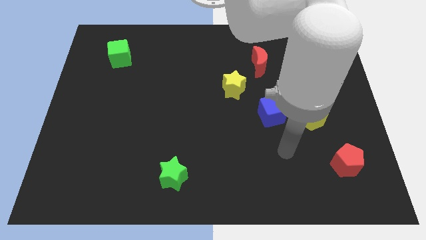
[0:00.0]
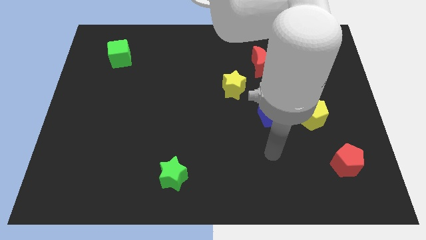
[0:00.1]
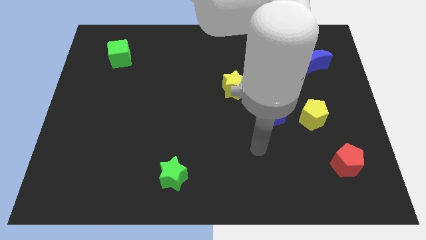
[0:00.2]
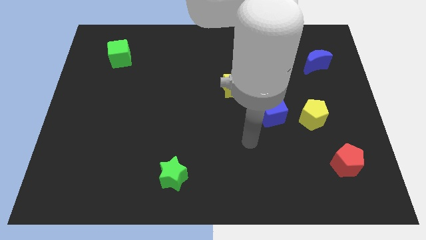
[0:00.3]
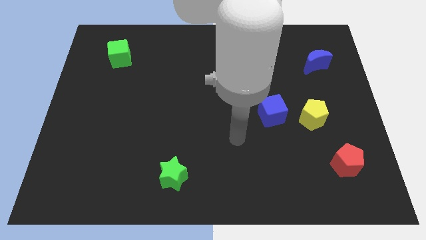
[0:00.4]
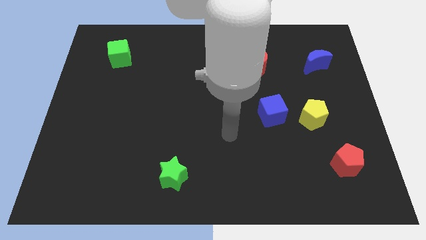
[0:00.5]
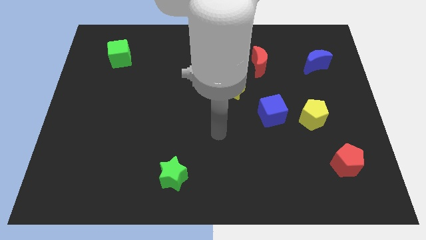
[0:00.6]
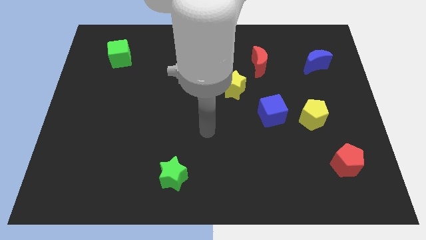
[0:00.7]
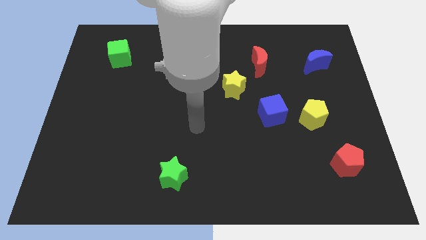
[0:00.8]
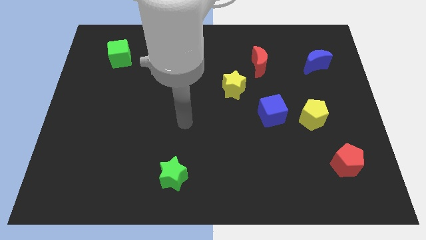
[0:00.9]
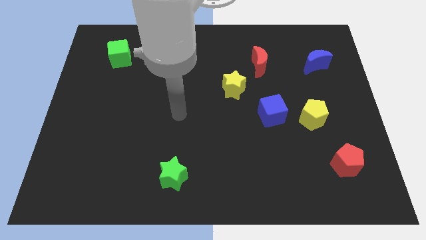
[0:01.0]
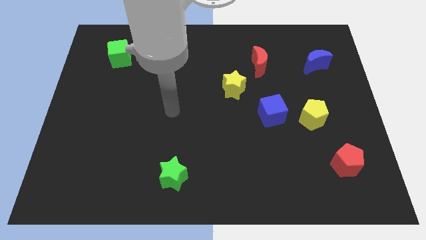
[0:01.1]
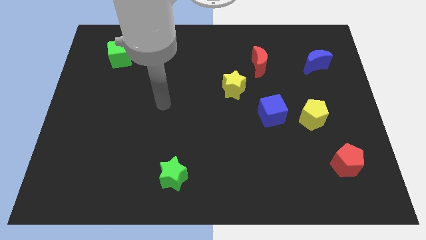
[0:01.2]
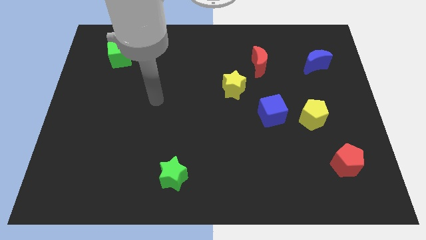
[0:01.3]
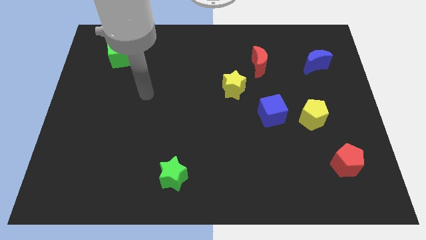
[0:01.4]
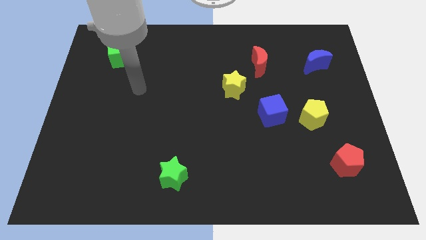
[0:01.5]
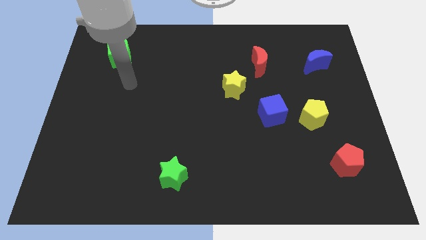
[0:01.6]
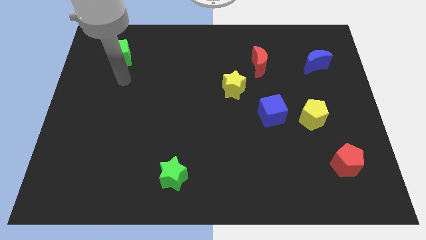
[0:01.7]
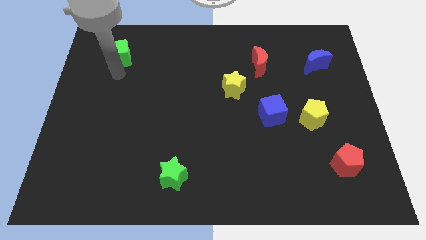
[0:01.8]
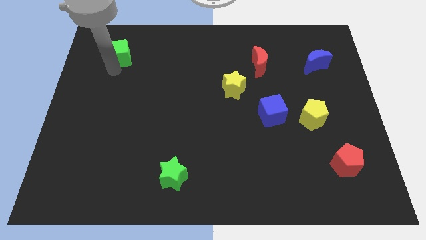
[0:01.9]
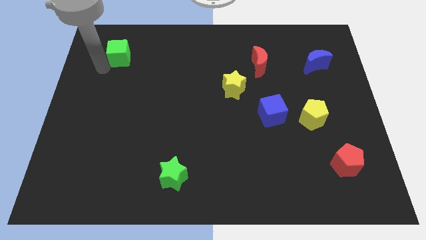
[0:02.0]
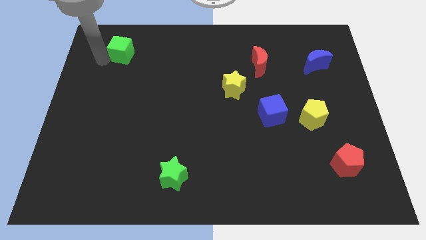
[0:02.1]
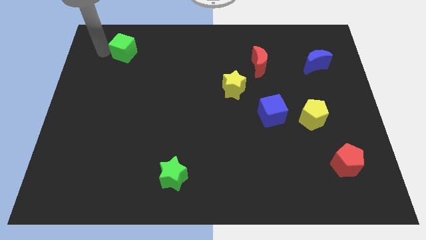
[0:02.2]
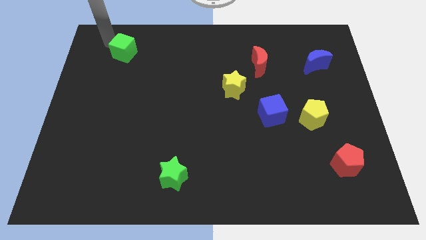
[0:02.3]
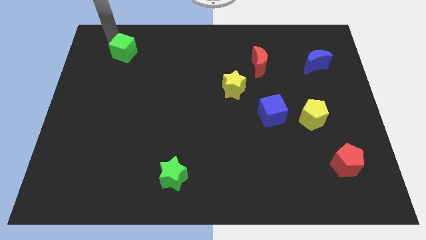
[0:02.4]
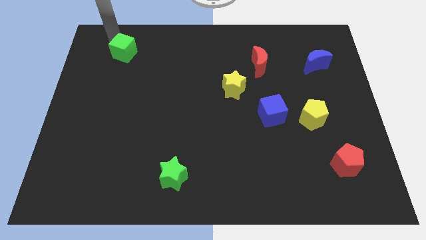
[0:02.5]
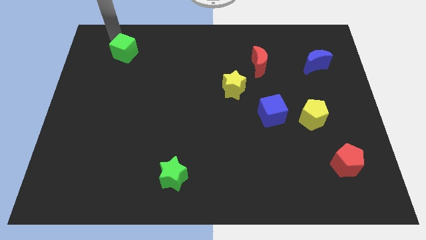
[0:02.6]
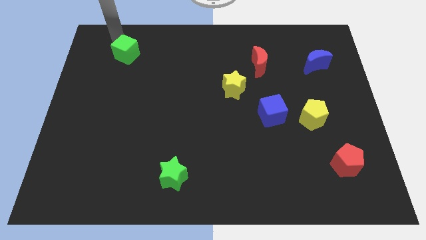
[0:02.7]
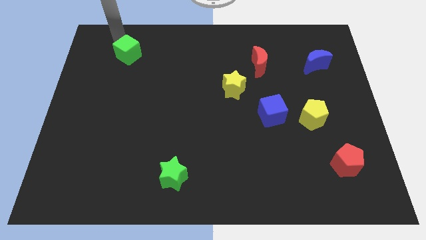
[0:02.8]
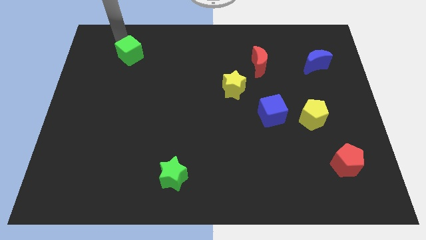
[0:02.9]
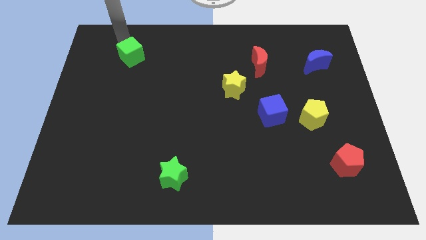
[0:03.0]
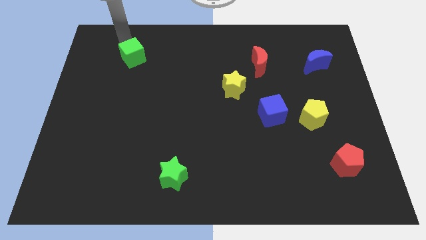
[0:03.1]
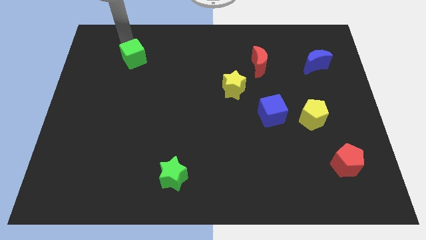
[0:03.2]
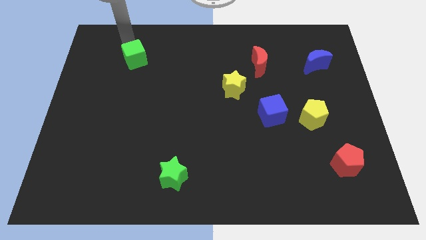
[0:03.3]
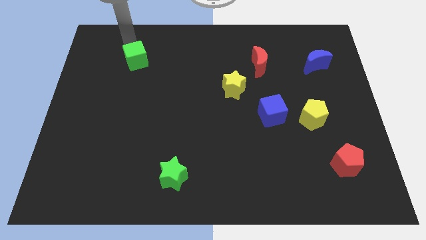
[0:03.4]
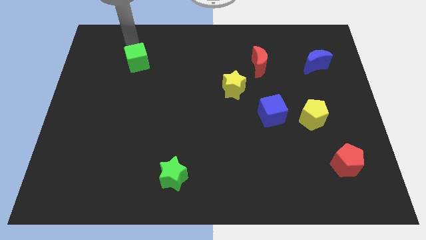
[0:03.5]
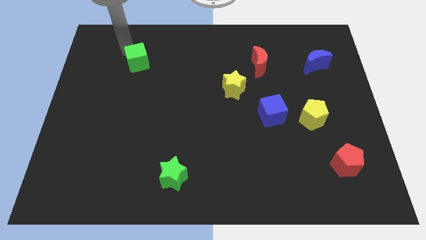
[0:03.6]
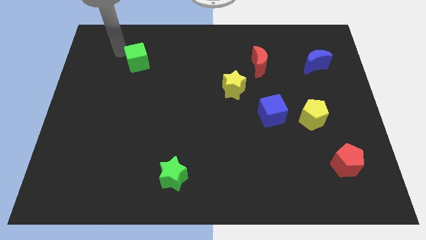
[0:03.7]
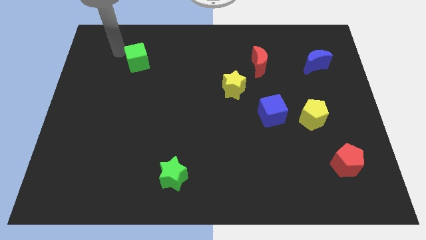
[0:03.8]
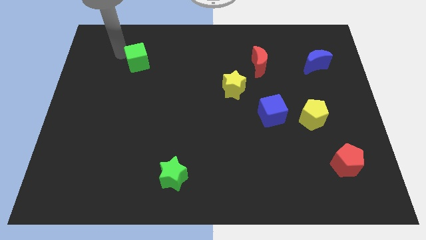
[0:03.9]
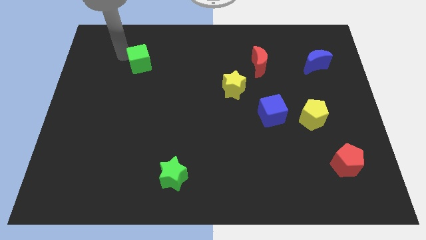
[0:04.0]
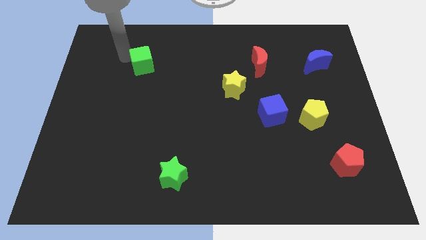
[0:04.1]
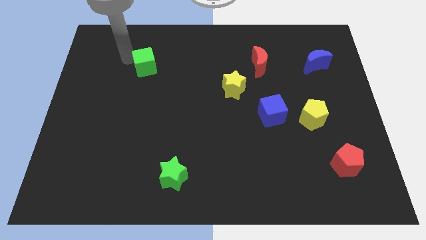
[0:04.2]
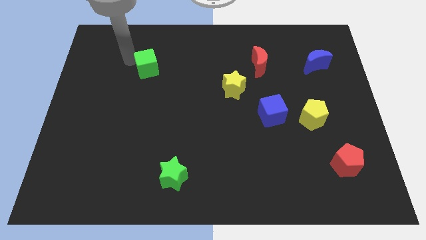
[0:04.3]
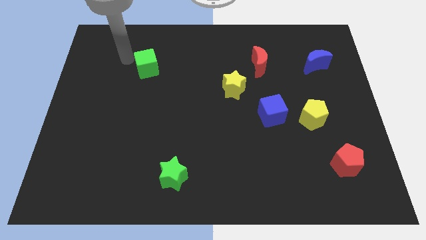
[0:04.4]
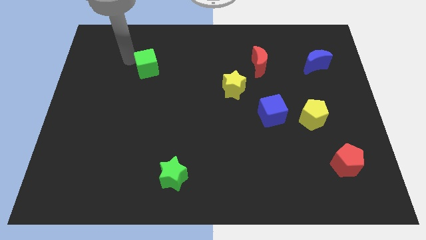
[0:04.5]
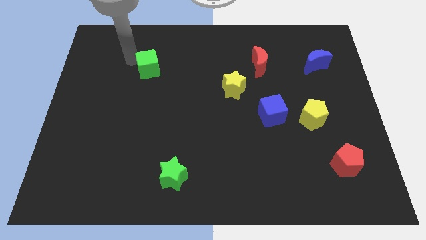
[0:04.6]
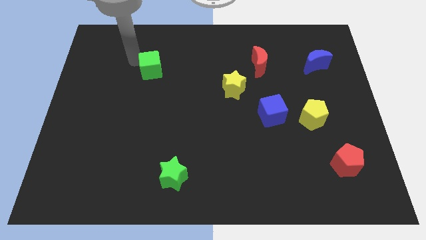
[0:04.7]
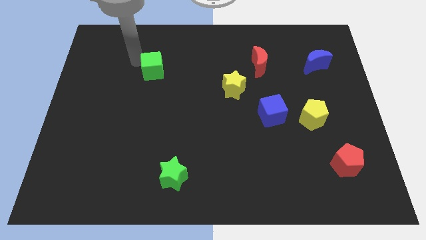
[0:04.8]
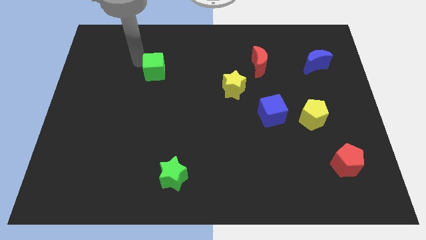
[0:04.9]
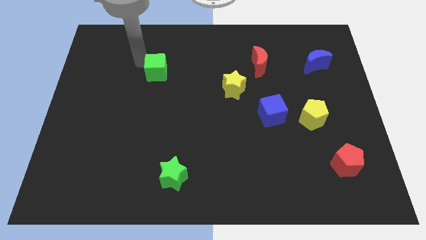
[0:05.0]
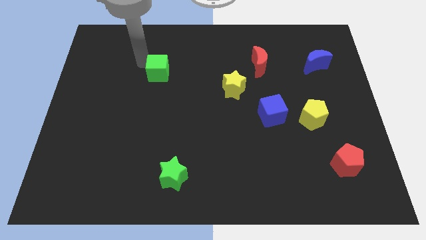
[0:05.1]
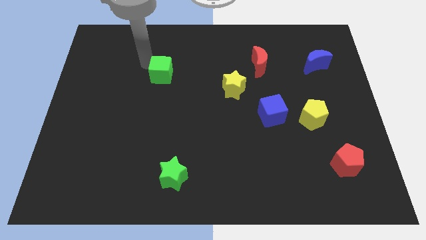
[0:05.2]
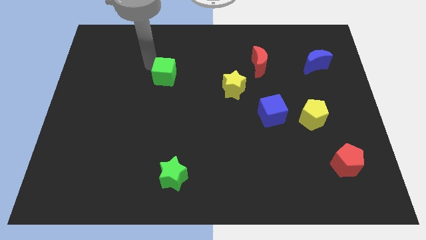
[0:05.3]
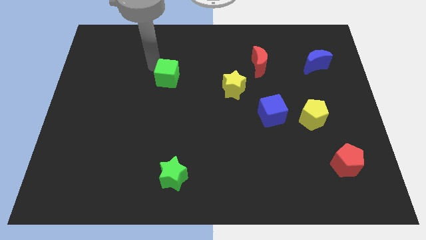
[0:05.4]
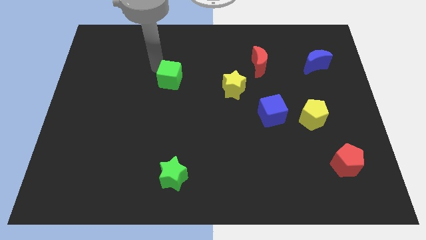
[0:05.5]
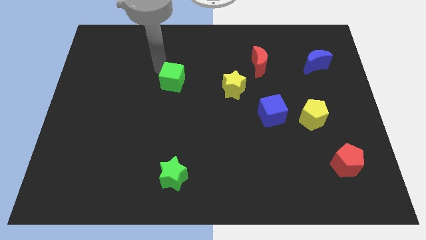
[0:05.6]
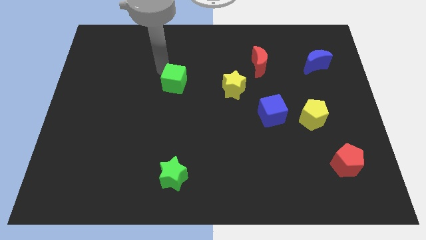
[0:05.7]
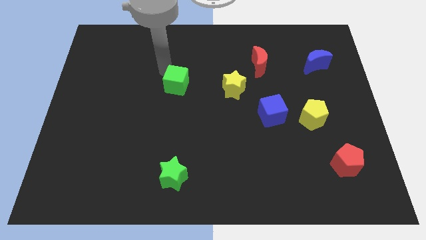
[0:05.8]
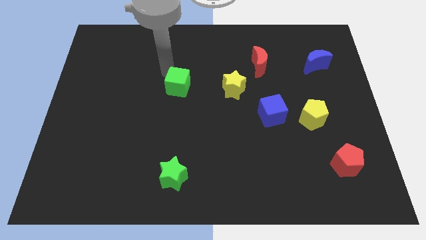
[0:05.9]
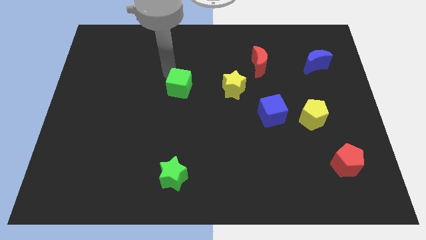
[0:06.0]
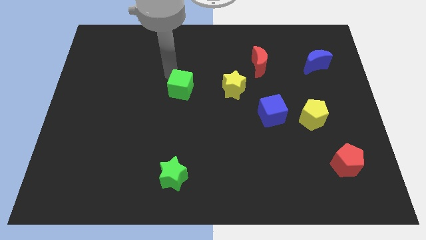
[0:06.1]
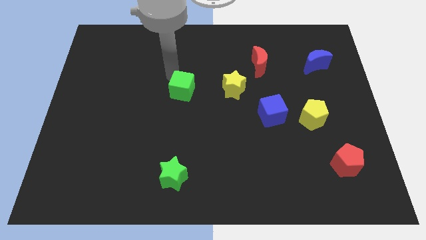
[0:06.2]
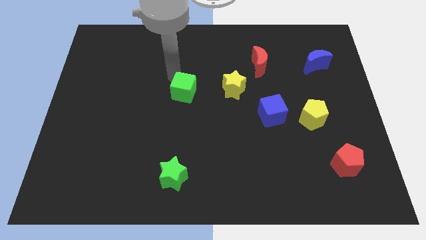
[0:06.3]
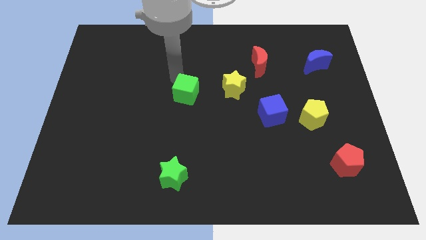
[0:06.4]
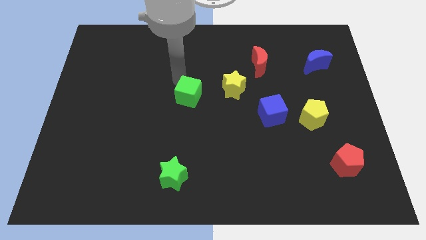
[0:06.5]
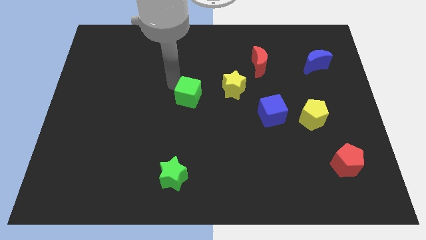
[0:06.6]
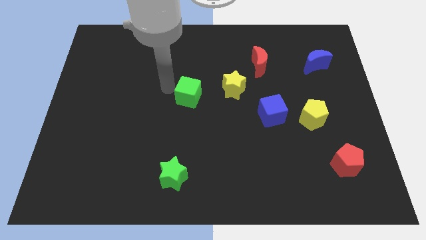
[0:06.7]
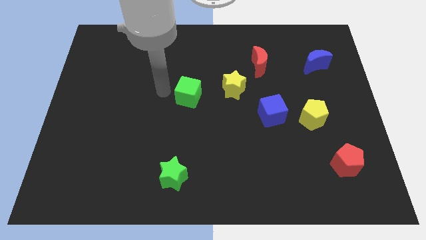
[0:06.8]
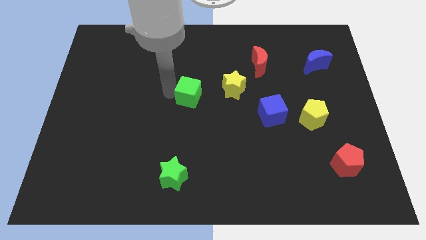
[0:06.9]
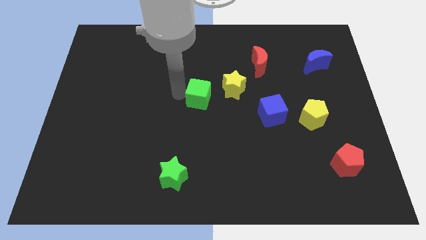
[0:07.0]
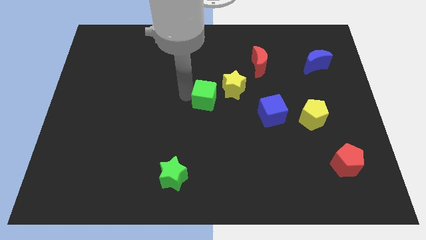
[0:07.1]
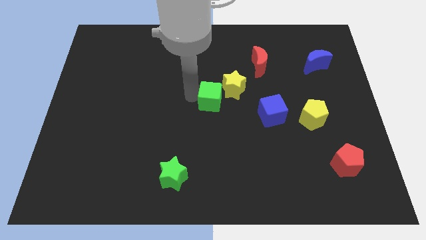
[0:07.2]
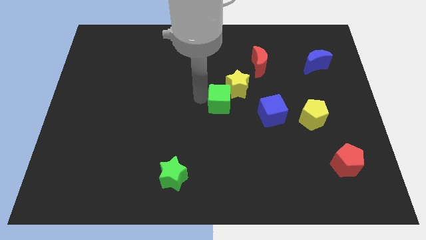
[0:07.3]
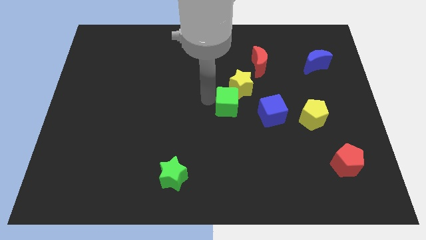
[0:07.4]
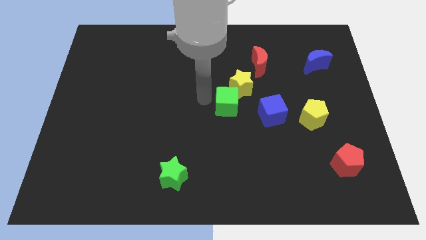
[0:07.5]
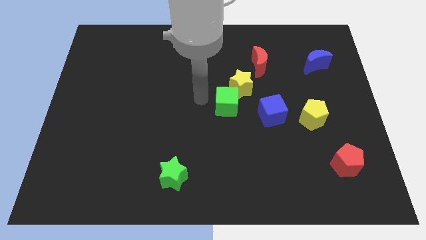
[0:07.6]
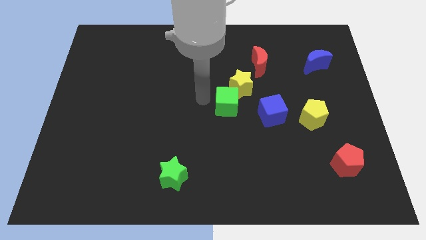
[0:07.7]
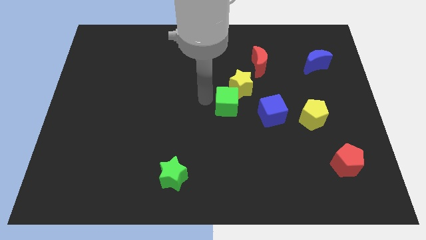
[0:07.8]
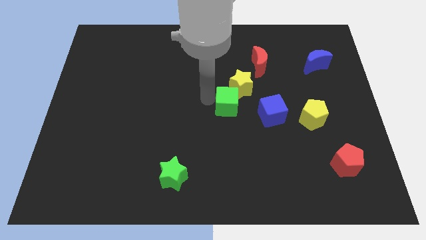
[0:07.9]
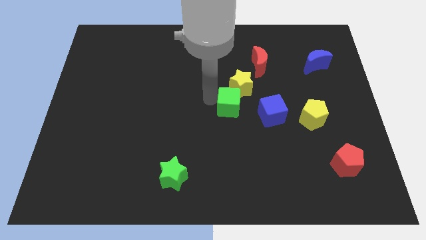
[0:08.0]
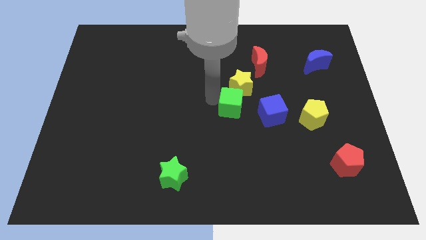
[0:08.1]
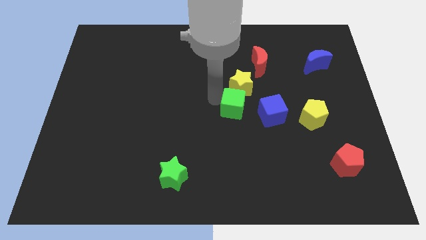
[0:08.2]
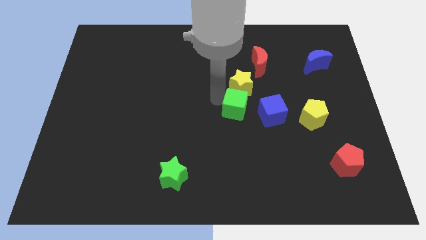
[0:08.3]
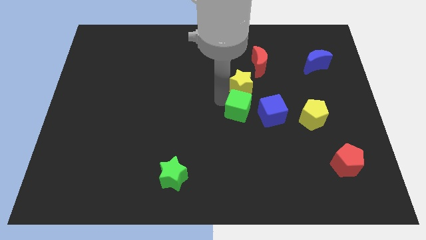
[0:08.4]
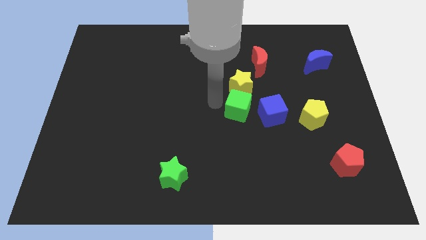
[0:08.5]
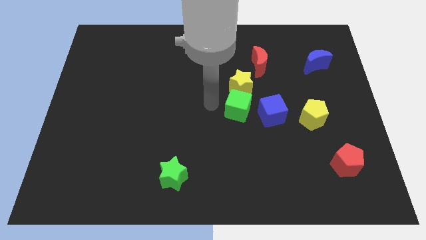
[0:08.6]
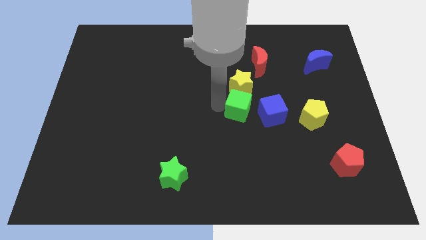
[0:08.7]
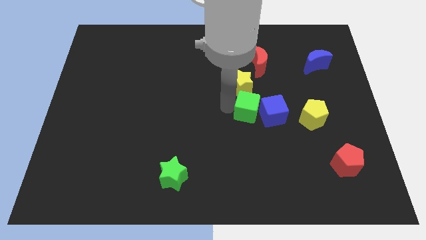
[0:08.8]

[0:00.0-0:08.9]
push the green cube next to the blue cube
